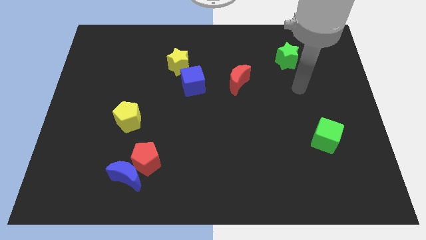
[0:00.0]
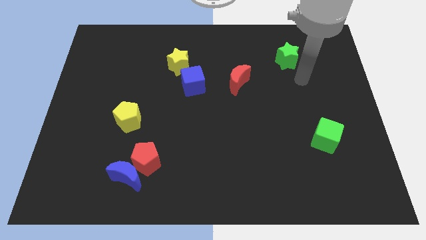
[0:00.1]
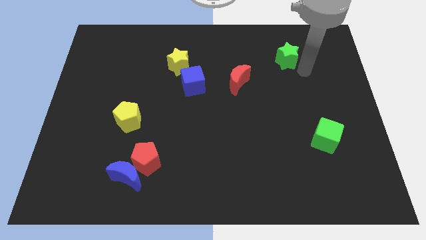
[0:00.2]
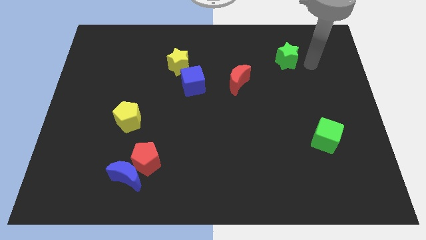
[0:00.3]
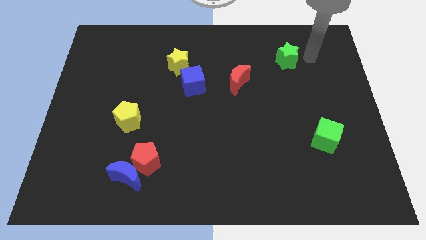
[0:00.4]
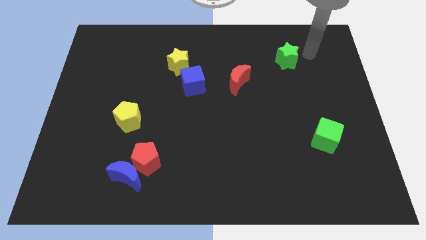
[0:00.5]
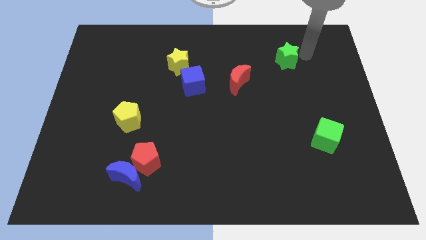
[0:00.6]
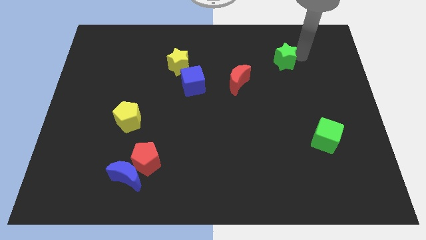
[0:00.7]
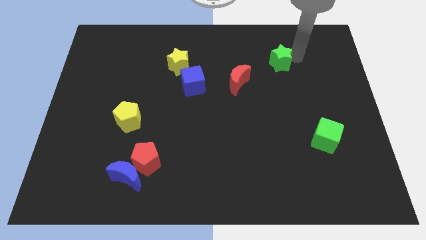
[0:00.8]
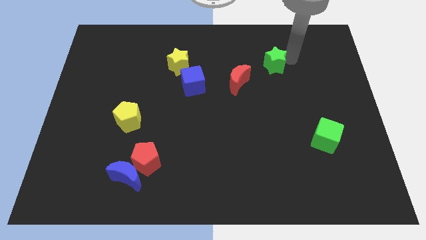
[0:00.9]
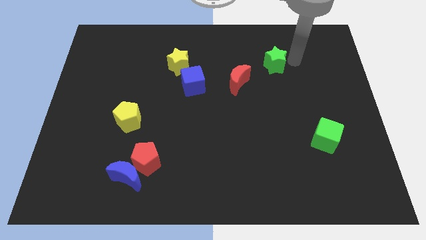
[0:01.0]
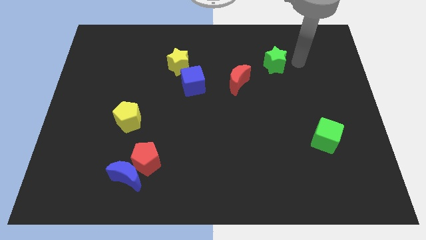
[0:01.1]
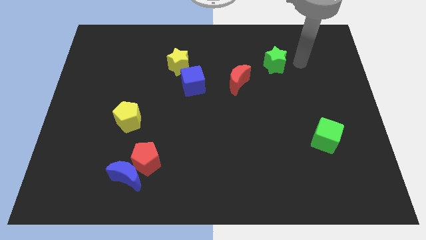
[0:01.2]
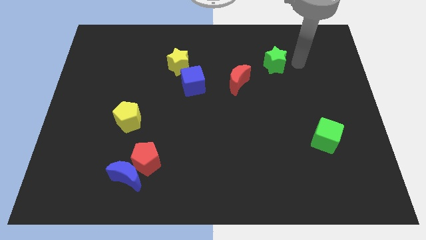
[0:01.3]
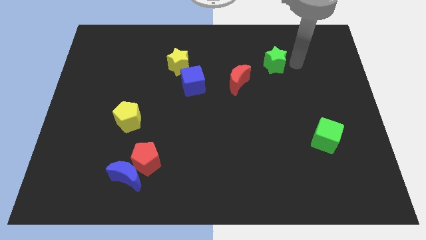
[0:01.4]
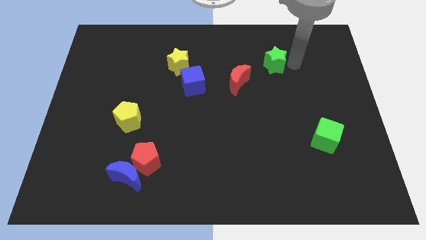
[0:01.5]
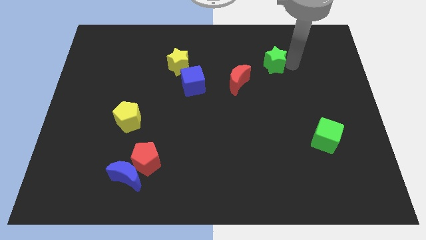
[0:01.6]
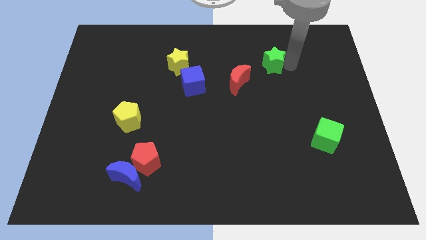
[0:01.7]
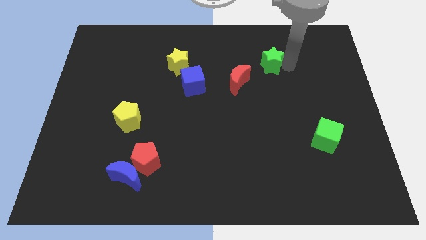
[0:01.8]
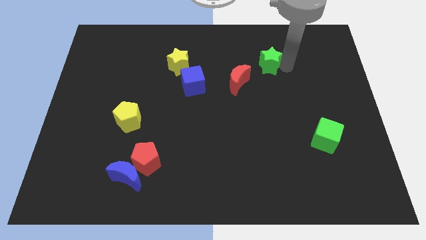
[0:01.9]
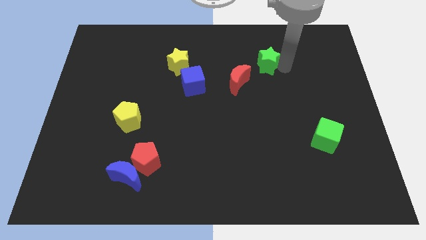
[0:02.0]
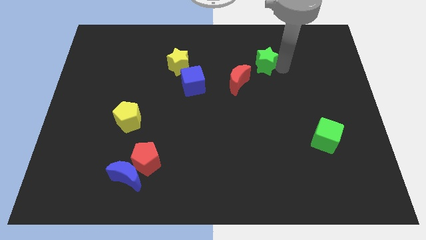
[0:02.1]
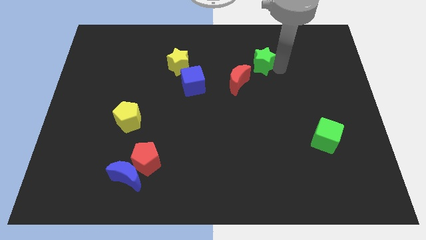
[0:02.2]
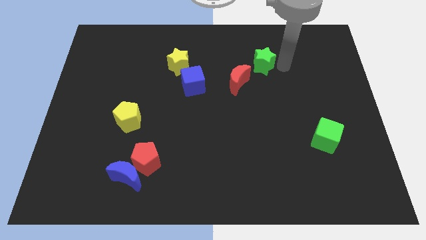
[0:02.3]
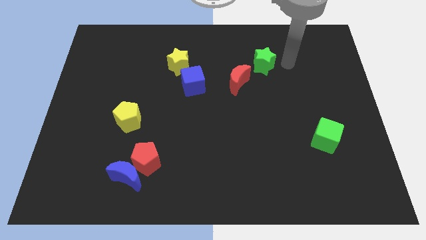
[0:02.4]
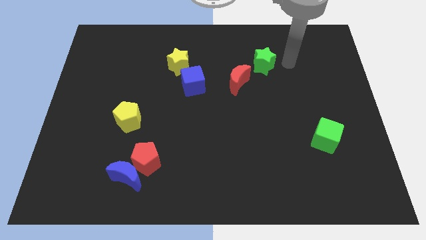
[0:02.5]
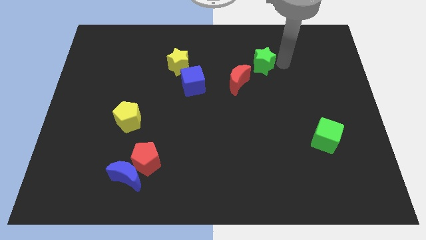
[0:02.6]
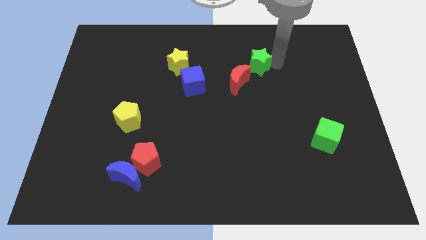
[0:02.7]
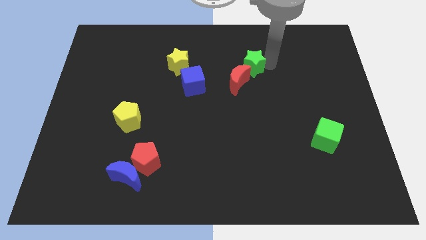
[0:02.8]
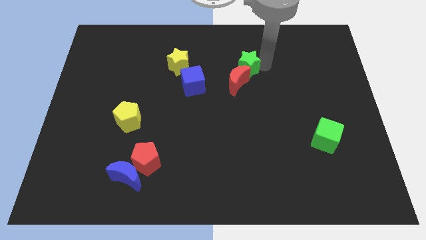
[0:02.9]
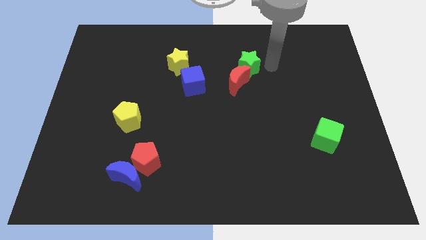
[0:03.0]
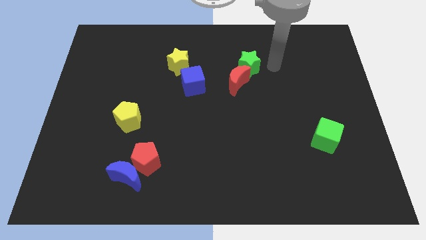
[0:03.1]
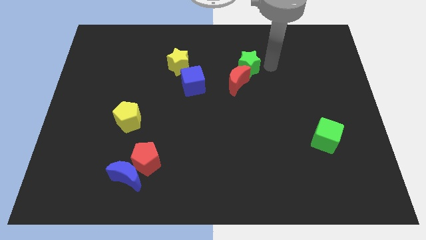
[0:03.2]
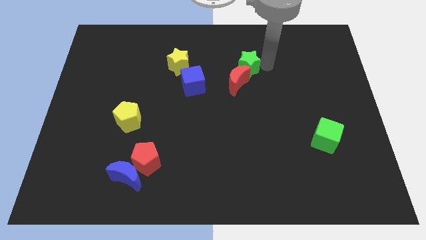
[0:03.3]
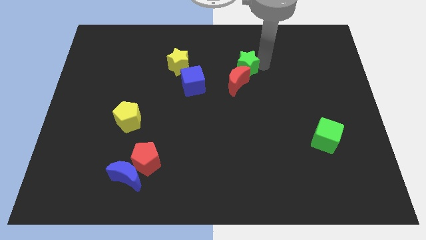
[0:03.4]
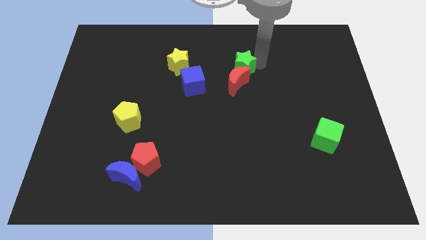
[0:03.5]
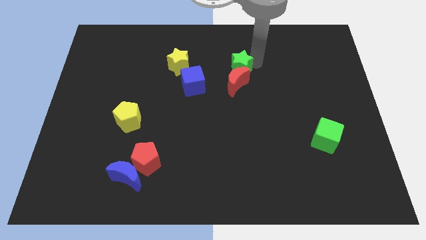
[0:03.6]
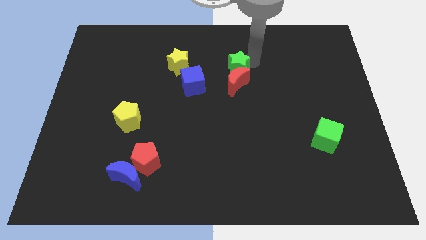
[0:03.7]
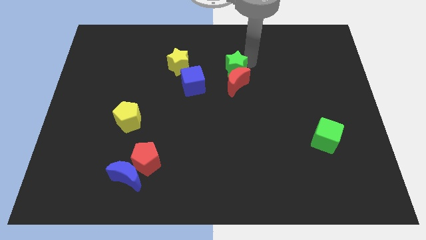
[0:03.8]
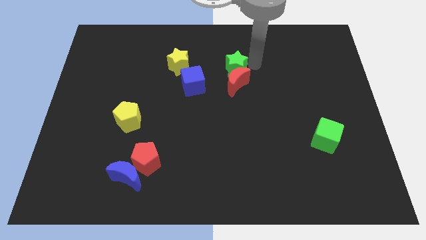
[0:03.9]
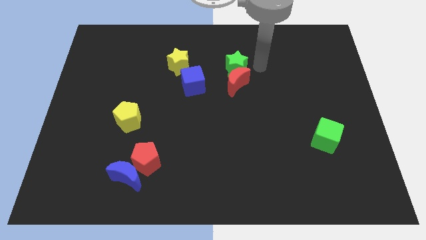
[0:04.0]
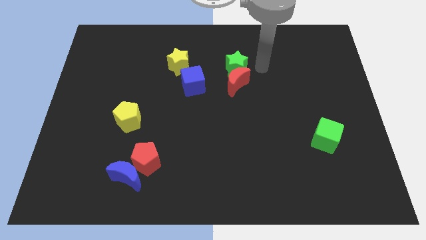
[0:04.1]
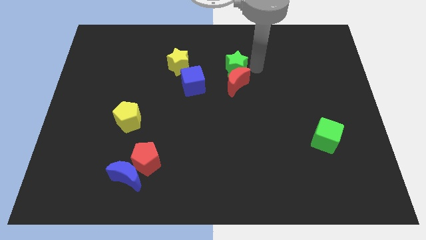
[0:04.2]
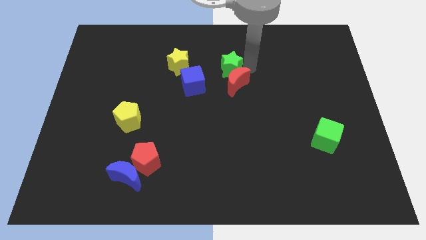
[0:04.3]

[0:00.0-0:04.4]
push the green star to the top right side of the blue cube

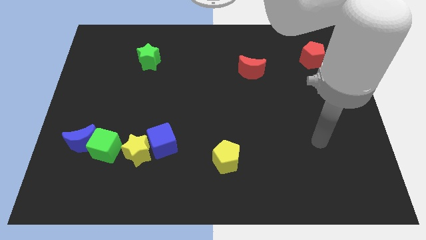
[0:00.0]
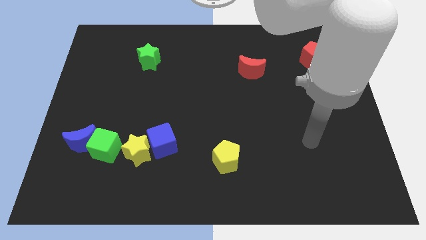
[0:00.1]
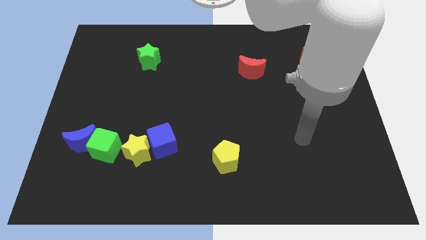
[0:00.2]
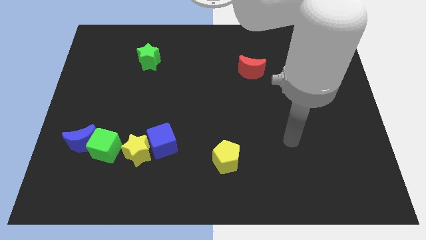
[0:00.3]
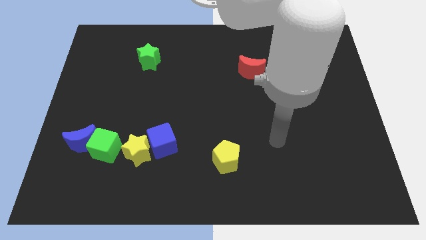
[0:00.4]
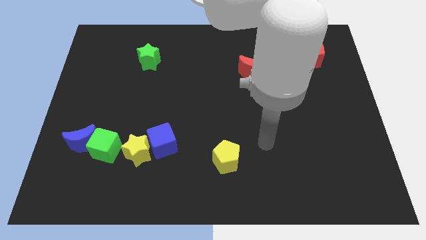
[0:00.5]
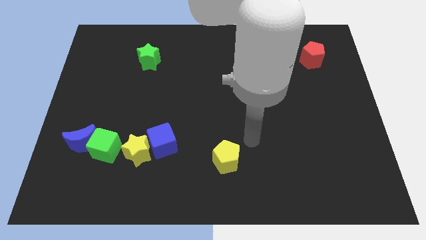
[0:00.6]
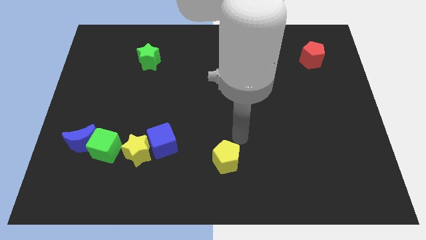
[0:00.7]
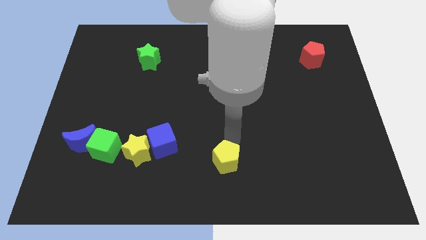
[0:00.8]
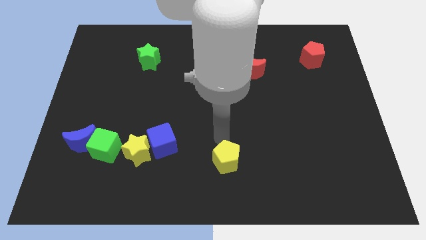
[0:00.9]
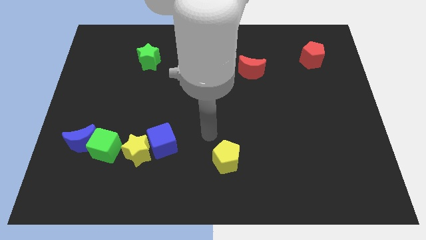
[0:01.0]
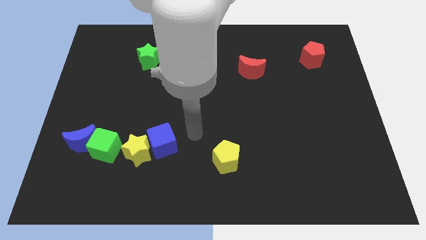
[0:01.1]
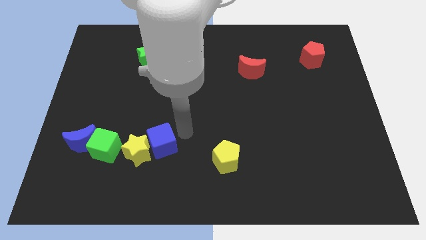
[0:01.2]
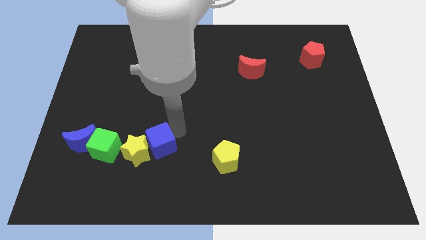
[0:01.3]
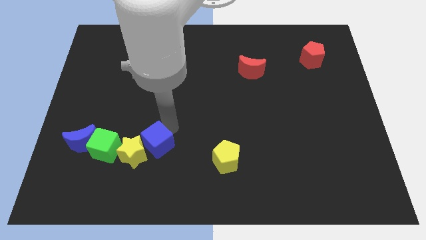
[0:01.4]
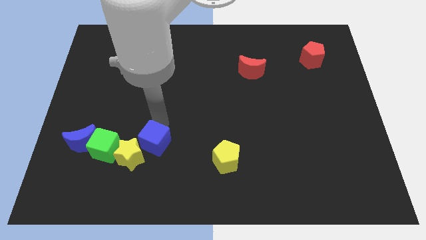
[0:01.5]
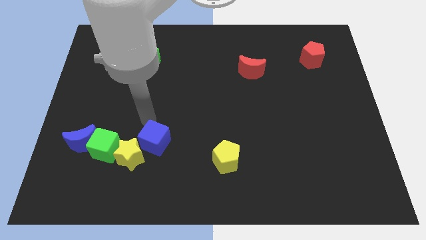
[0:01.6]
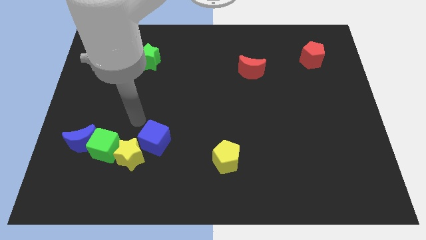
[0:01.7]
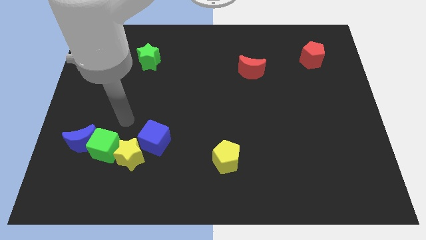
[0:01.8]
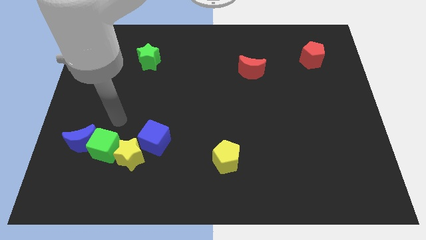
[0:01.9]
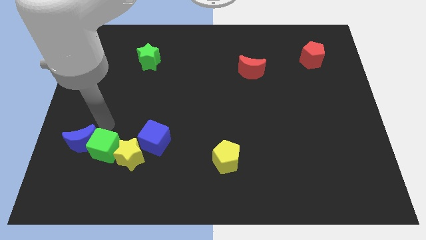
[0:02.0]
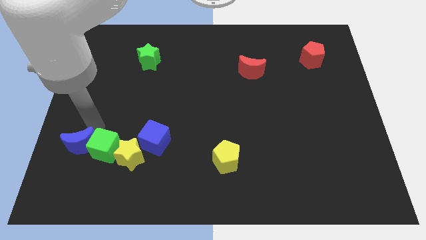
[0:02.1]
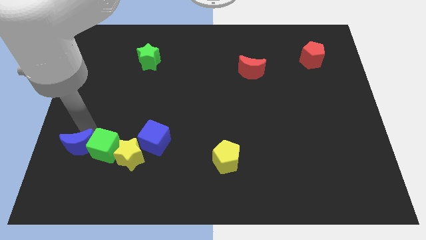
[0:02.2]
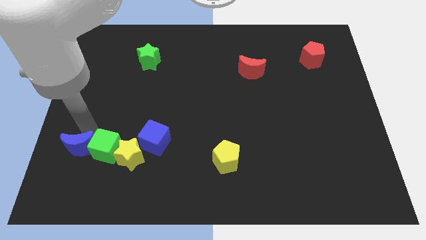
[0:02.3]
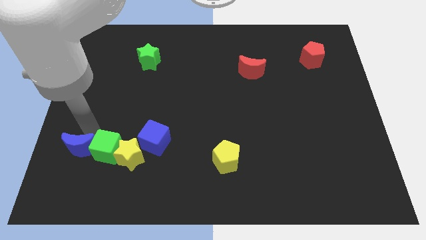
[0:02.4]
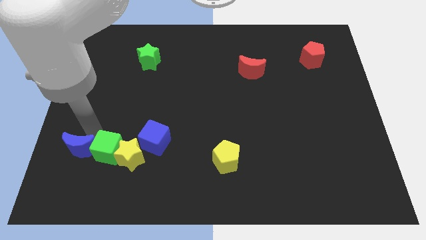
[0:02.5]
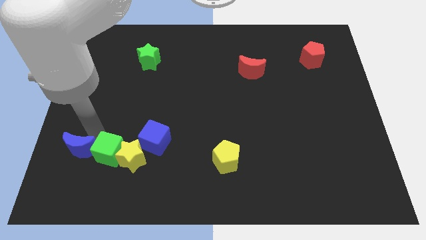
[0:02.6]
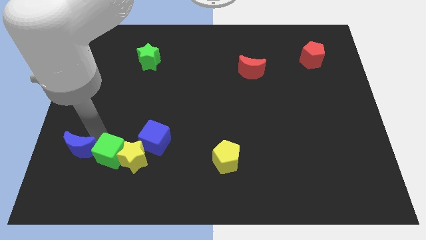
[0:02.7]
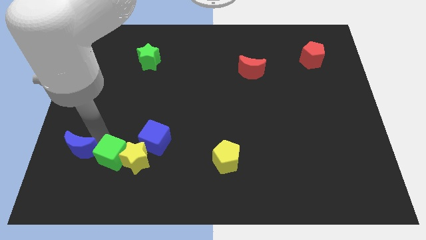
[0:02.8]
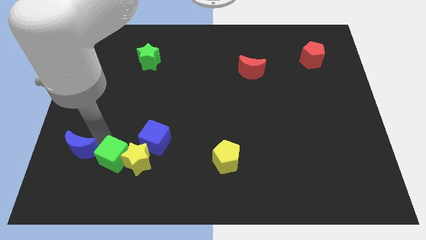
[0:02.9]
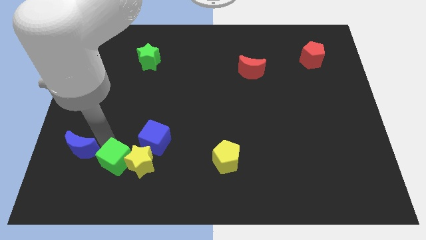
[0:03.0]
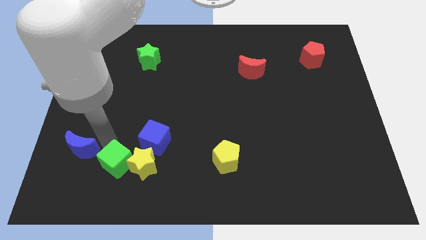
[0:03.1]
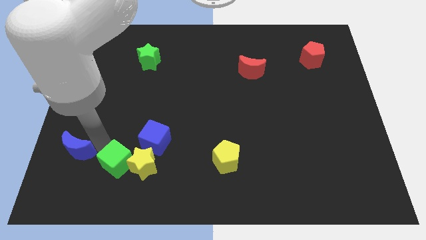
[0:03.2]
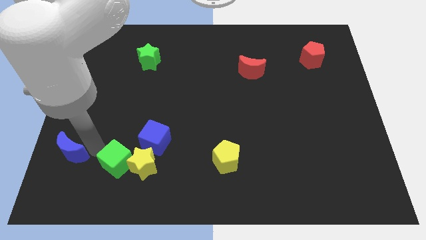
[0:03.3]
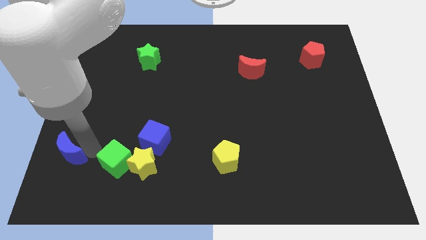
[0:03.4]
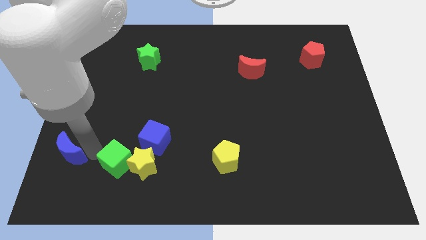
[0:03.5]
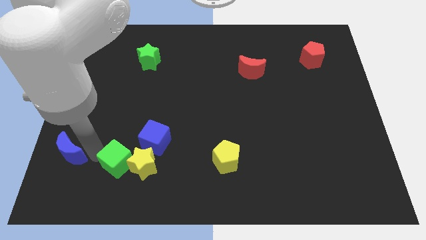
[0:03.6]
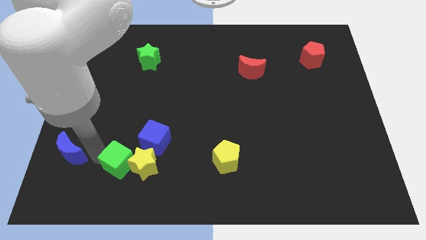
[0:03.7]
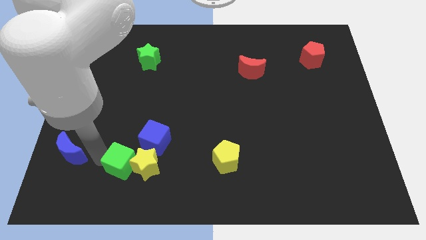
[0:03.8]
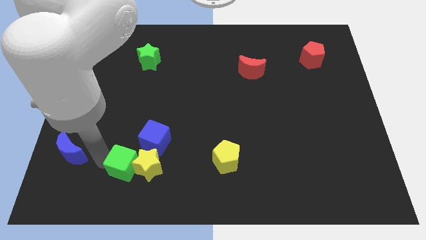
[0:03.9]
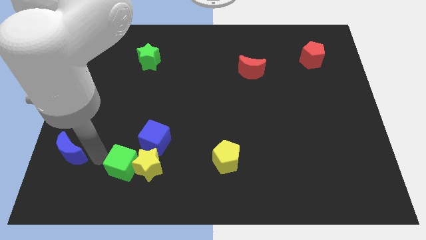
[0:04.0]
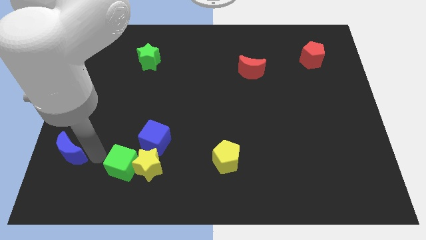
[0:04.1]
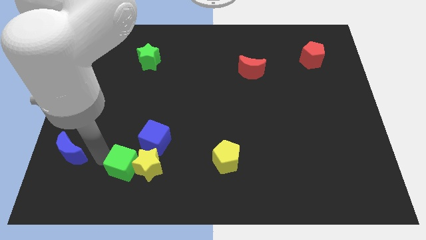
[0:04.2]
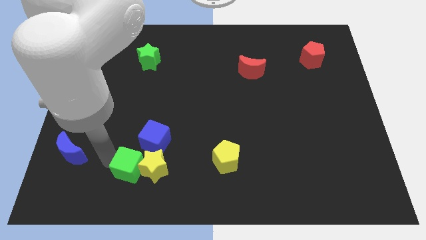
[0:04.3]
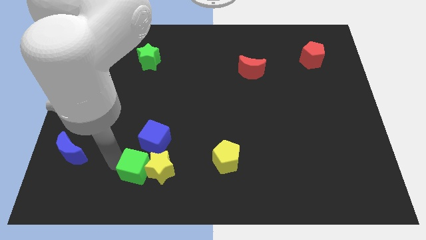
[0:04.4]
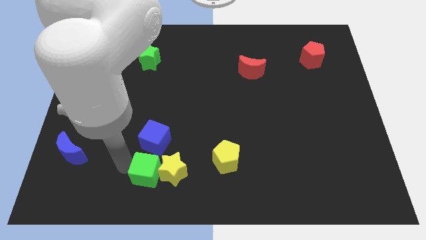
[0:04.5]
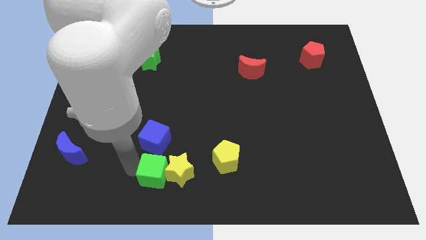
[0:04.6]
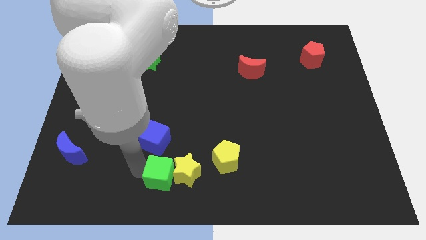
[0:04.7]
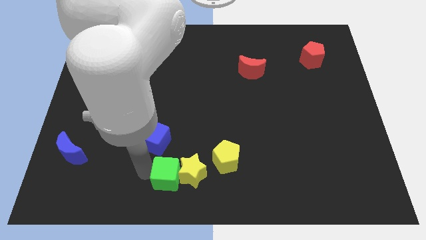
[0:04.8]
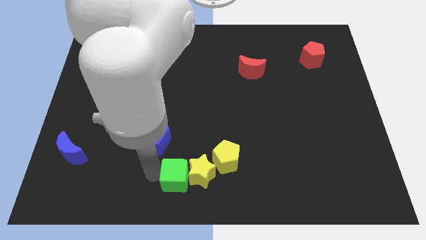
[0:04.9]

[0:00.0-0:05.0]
push the green cube to the bottom left of the yellow pentagon
